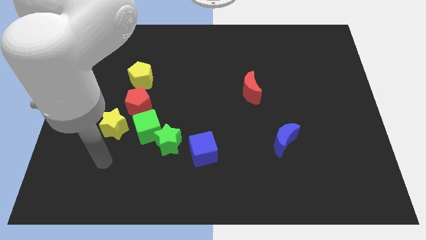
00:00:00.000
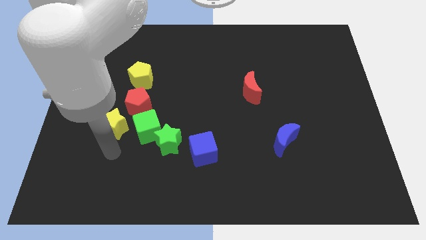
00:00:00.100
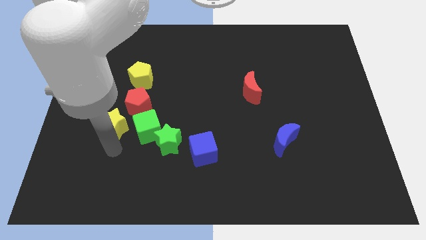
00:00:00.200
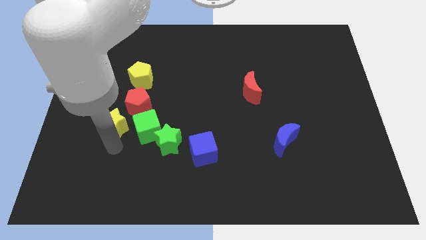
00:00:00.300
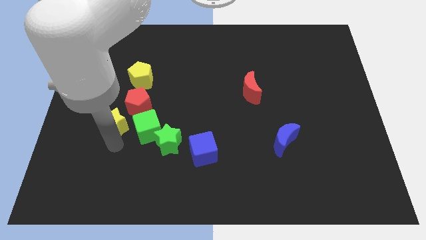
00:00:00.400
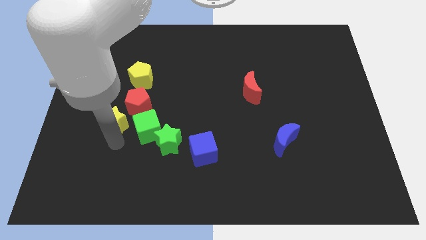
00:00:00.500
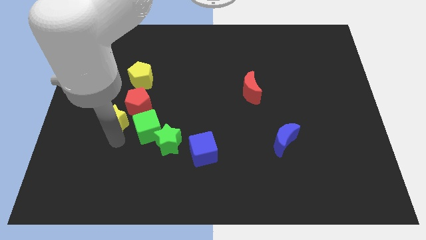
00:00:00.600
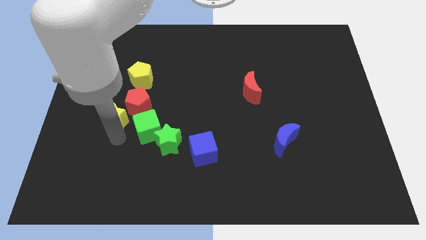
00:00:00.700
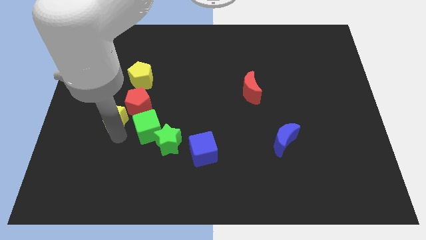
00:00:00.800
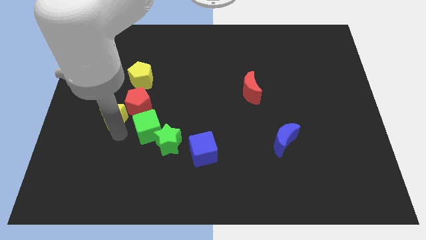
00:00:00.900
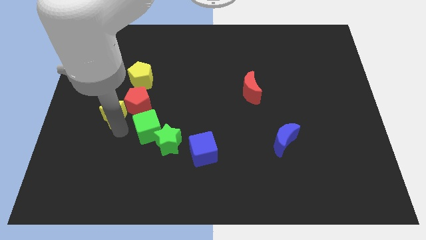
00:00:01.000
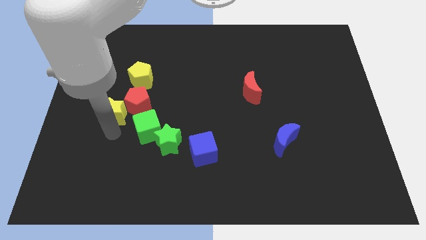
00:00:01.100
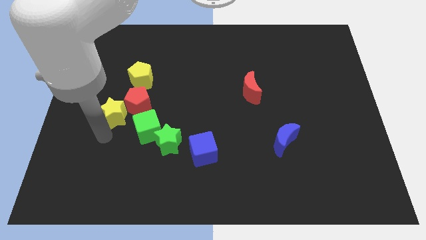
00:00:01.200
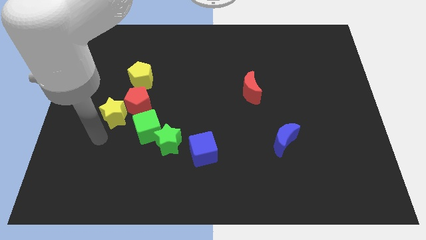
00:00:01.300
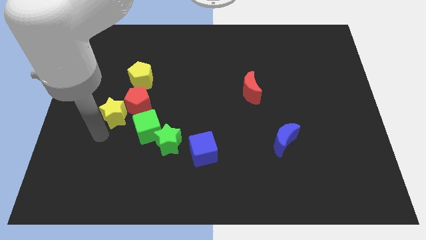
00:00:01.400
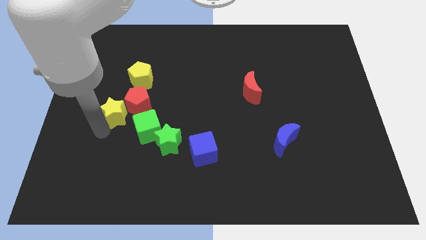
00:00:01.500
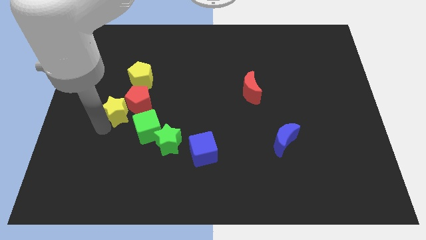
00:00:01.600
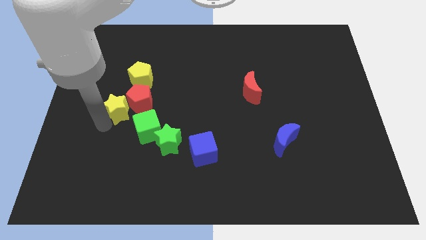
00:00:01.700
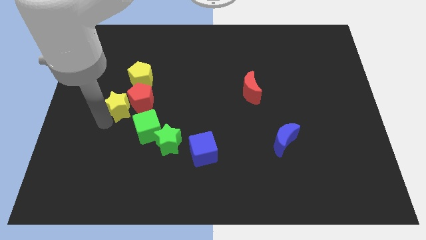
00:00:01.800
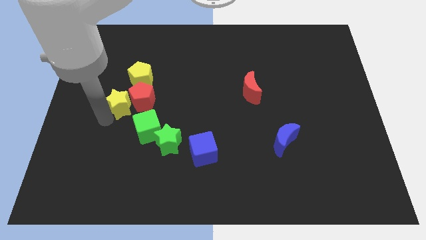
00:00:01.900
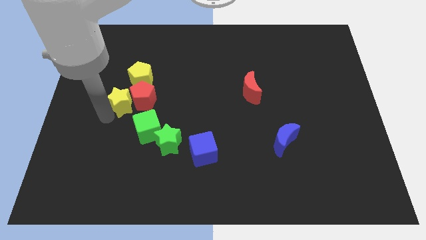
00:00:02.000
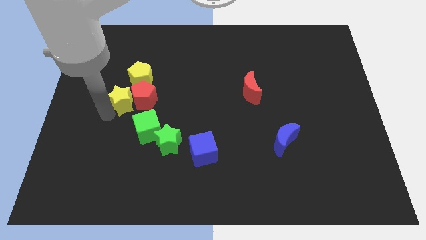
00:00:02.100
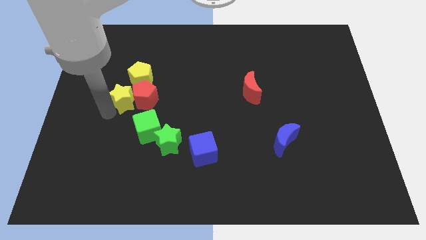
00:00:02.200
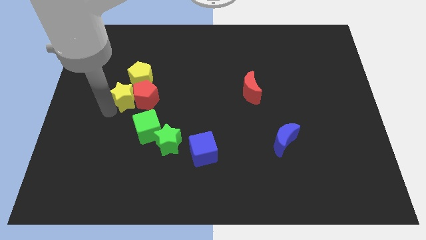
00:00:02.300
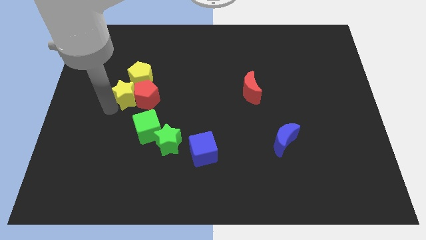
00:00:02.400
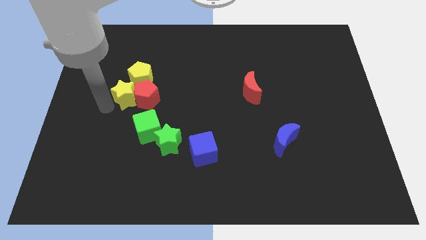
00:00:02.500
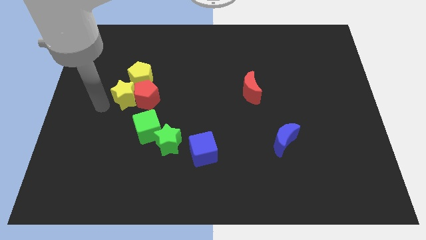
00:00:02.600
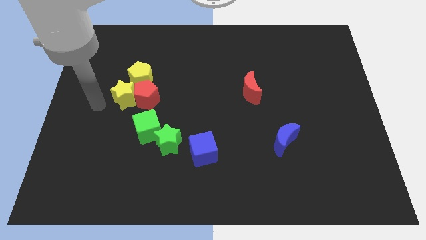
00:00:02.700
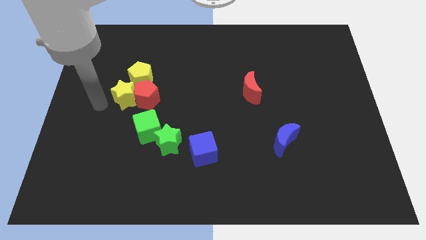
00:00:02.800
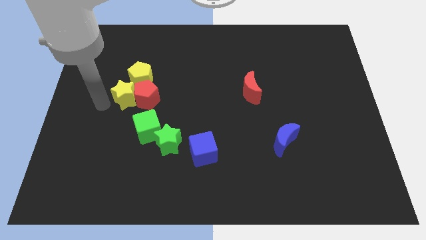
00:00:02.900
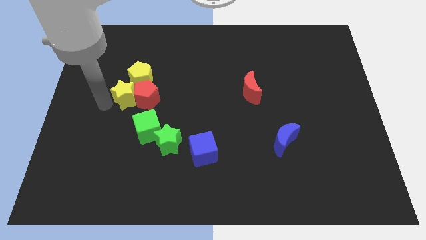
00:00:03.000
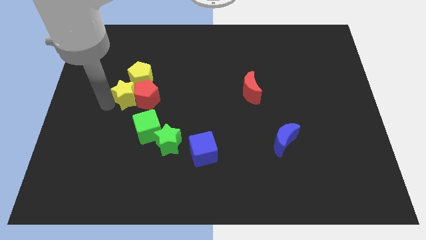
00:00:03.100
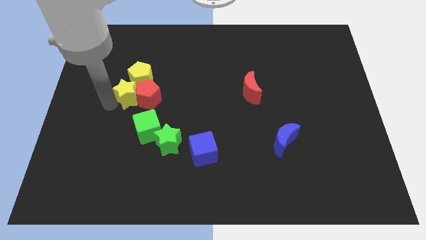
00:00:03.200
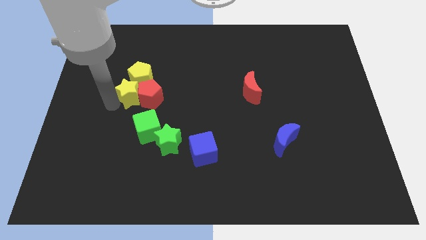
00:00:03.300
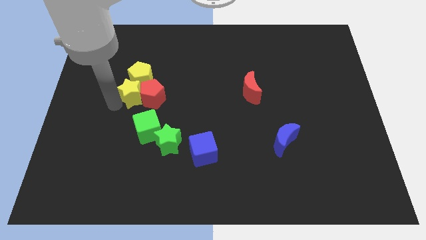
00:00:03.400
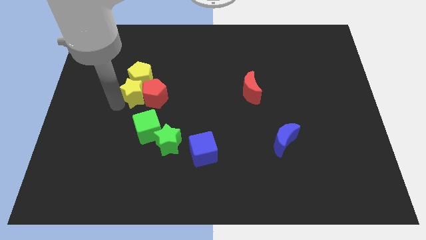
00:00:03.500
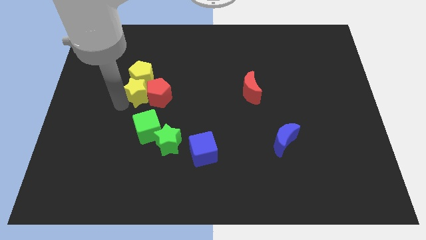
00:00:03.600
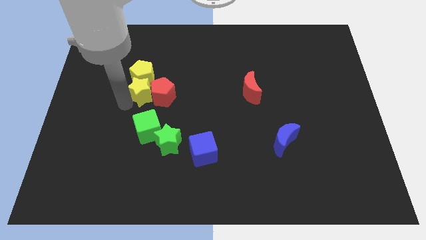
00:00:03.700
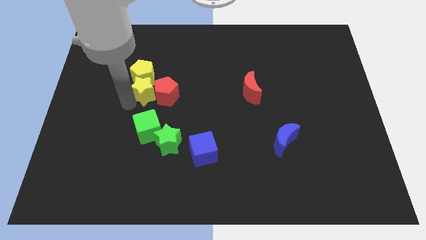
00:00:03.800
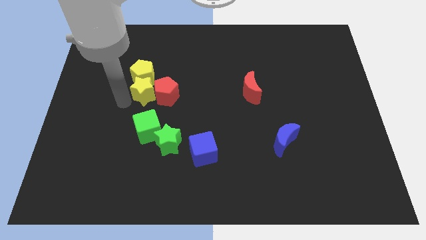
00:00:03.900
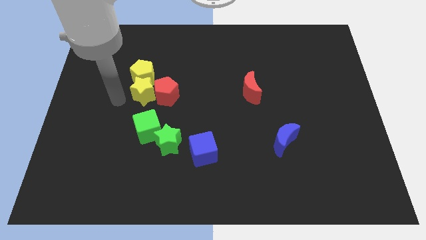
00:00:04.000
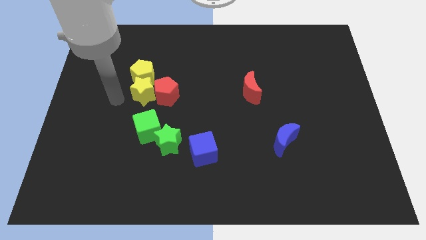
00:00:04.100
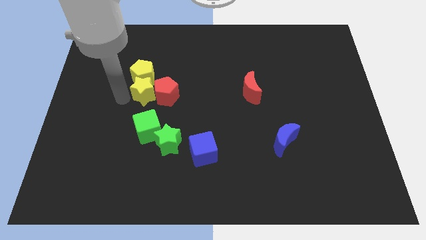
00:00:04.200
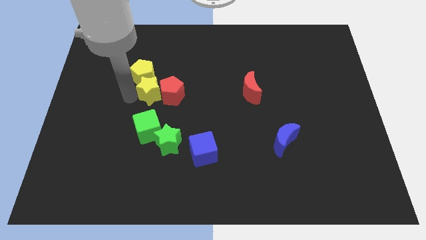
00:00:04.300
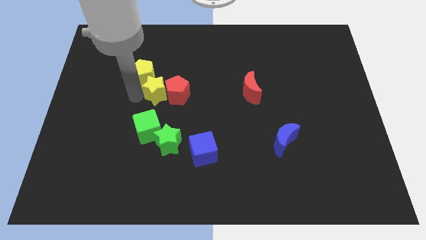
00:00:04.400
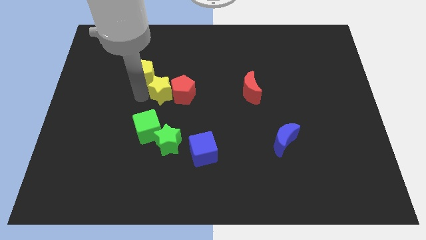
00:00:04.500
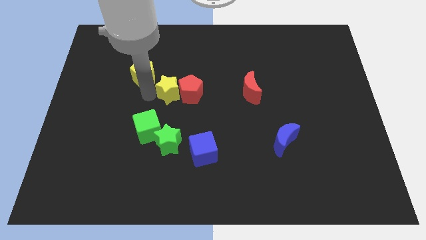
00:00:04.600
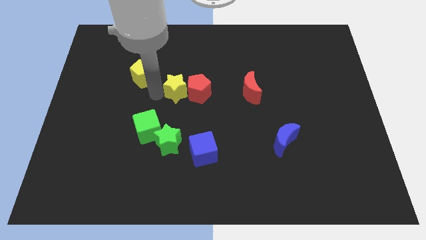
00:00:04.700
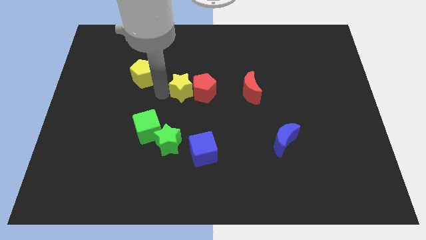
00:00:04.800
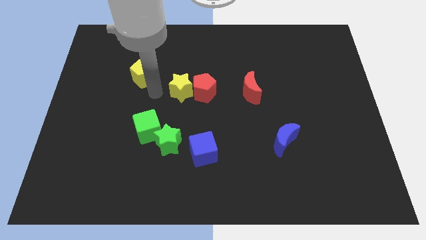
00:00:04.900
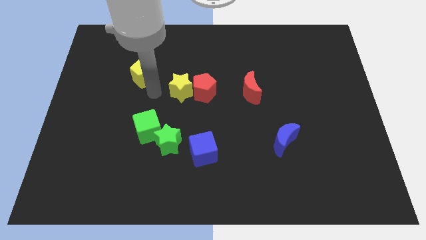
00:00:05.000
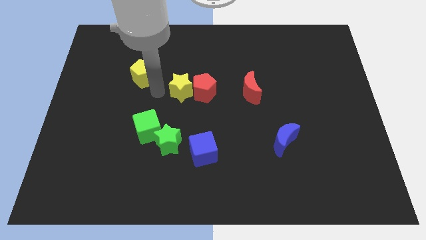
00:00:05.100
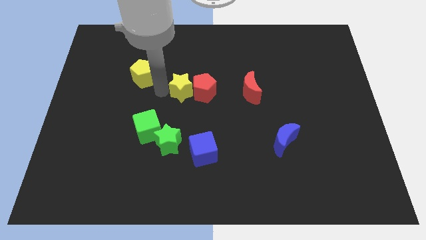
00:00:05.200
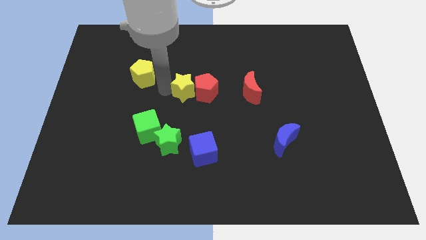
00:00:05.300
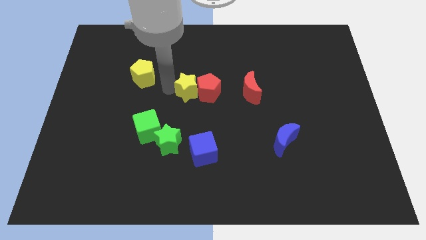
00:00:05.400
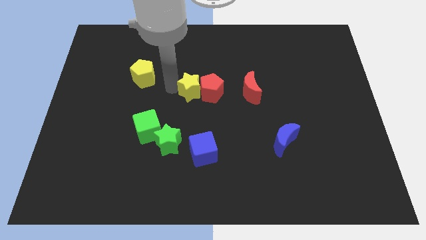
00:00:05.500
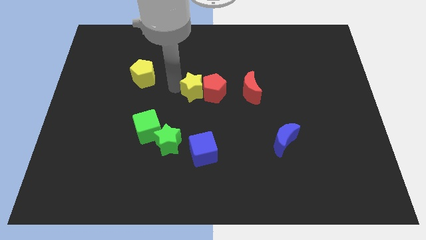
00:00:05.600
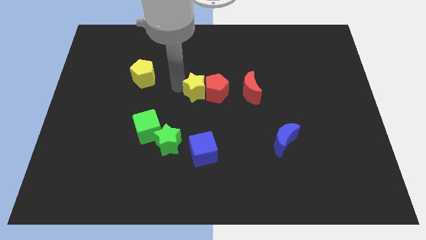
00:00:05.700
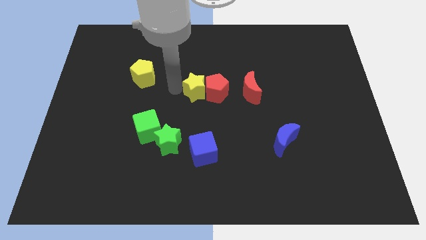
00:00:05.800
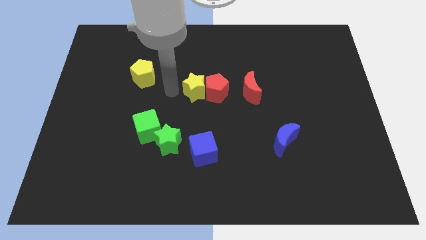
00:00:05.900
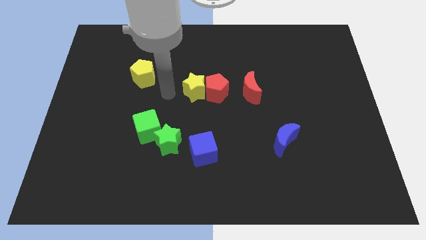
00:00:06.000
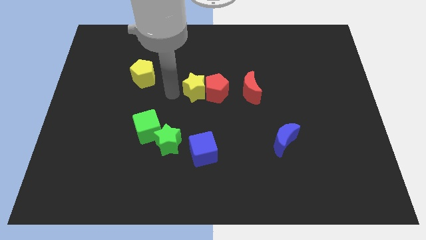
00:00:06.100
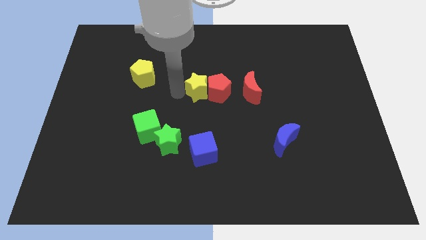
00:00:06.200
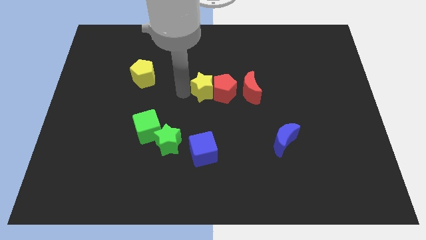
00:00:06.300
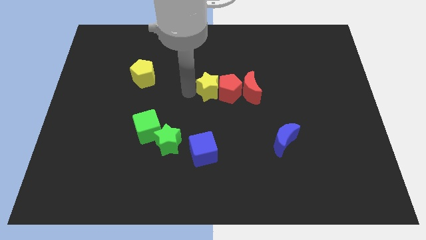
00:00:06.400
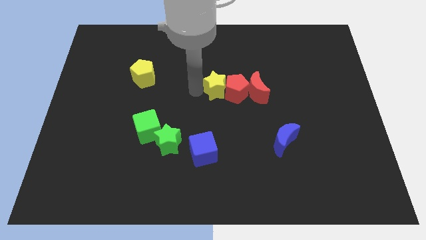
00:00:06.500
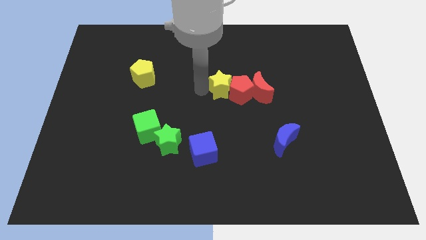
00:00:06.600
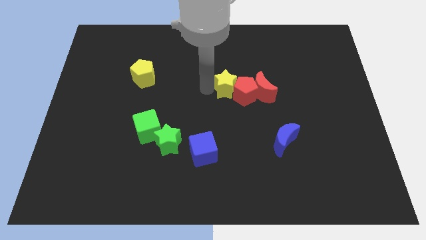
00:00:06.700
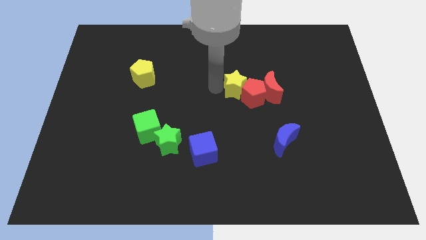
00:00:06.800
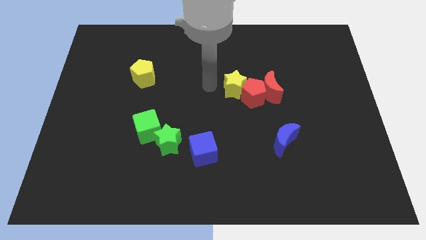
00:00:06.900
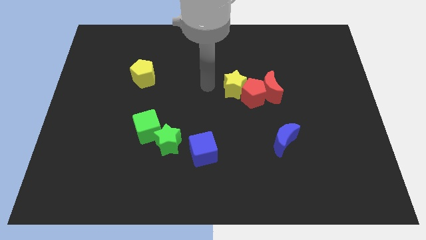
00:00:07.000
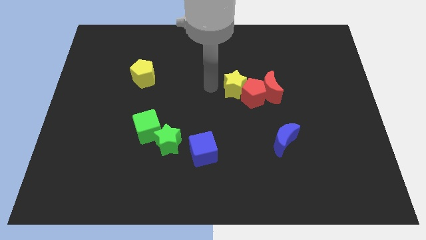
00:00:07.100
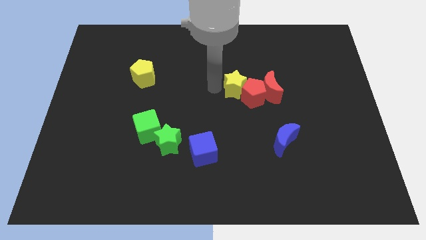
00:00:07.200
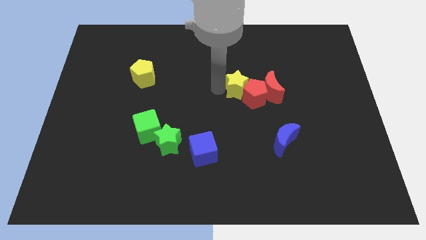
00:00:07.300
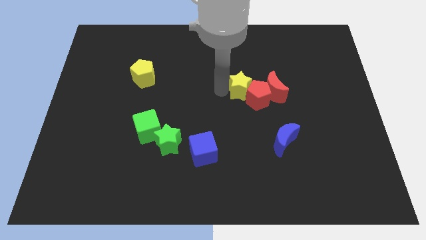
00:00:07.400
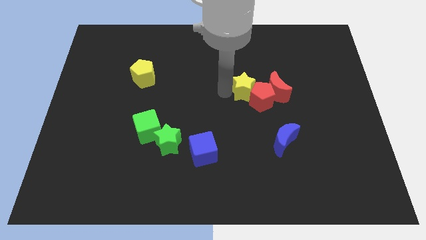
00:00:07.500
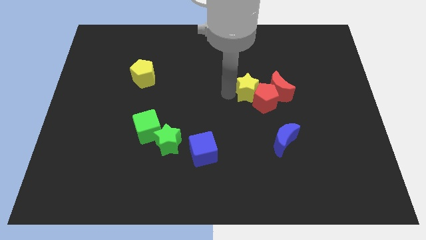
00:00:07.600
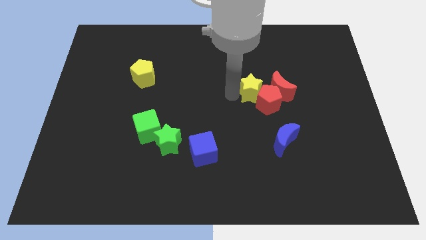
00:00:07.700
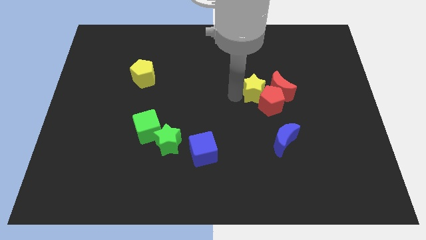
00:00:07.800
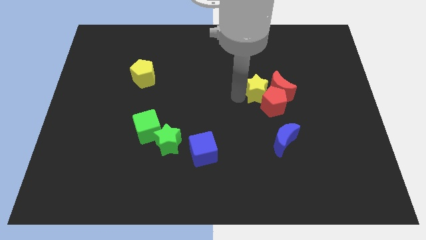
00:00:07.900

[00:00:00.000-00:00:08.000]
push the yellow star to the red moon
